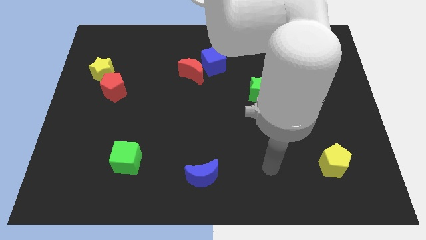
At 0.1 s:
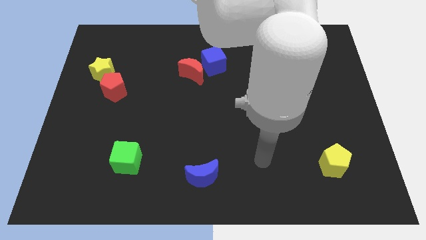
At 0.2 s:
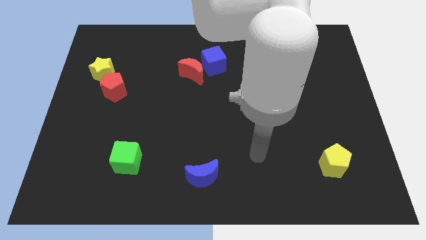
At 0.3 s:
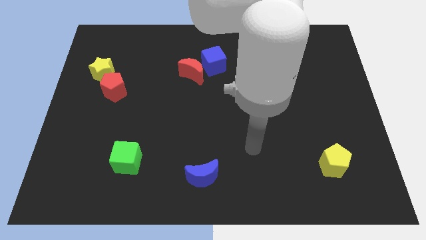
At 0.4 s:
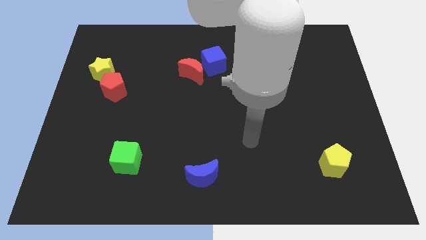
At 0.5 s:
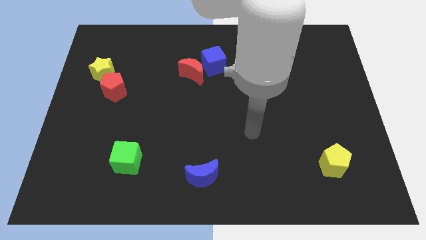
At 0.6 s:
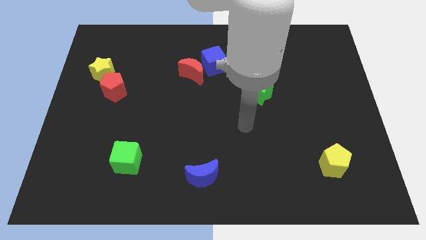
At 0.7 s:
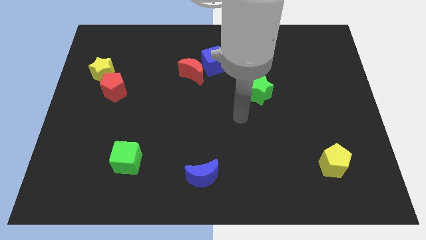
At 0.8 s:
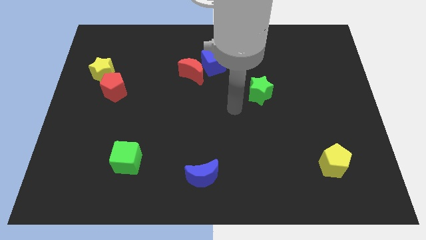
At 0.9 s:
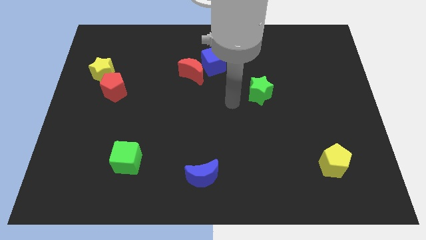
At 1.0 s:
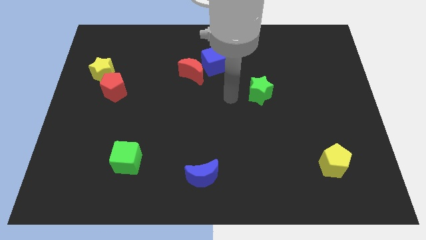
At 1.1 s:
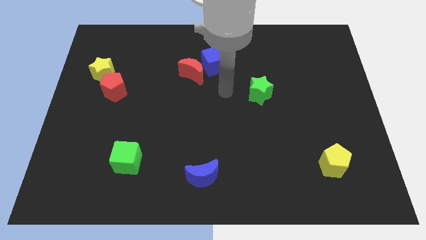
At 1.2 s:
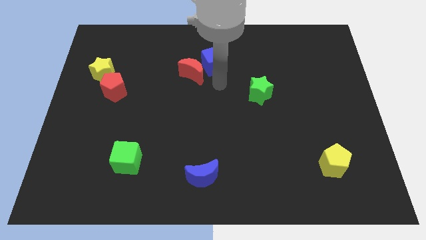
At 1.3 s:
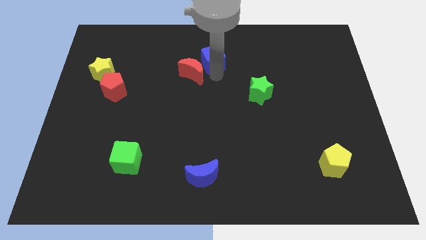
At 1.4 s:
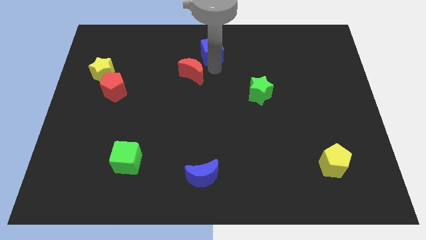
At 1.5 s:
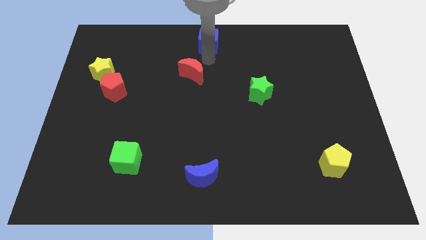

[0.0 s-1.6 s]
pull the red moon apart from the blue cube

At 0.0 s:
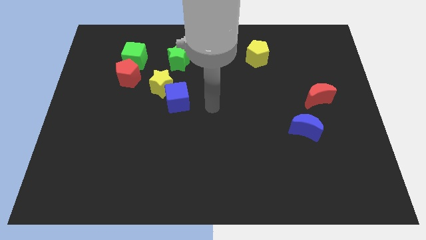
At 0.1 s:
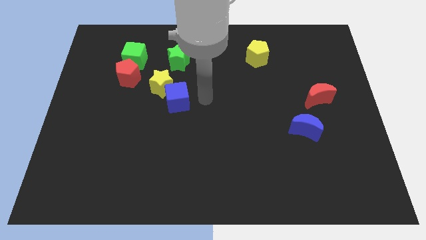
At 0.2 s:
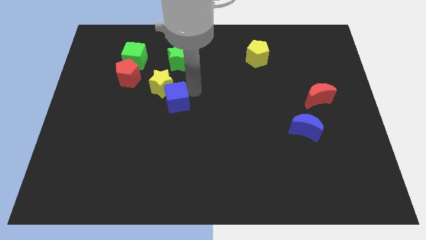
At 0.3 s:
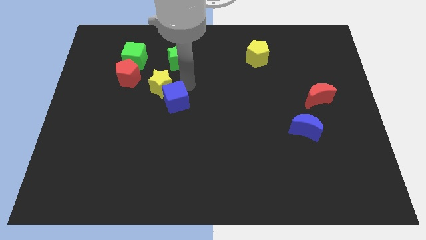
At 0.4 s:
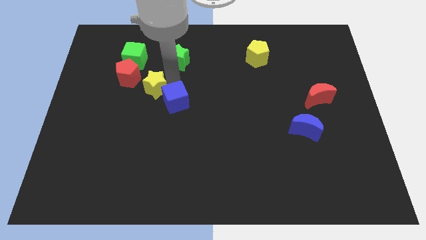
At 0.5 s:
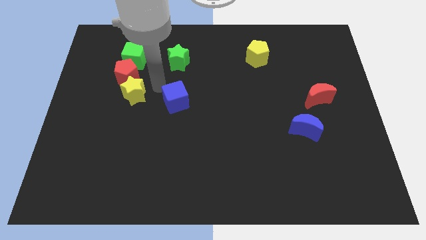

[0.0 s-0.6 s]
move the blue cube away from the yellow star

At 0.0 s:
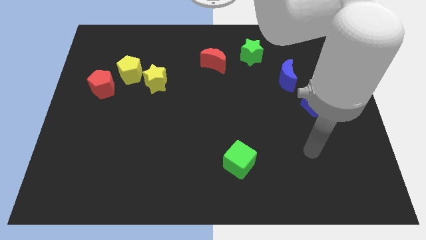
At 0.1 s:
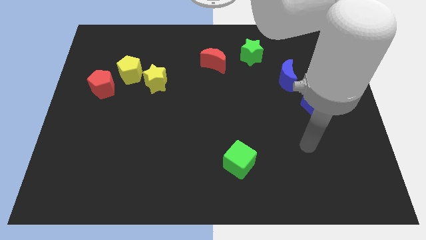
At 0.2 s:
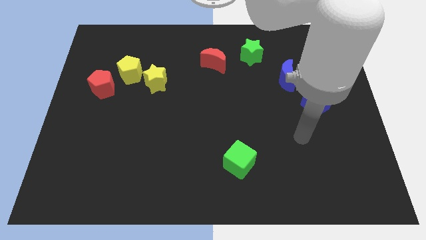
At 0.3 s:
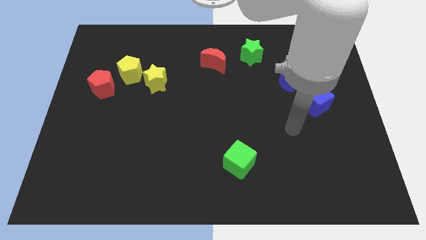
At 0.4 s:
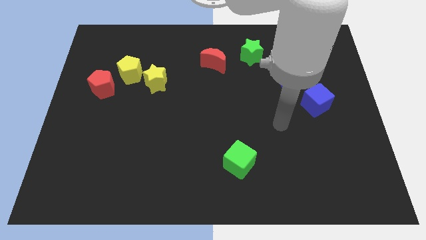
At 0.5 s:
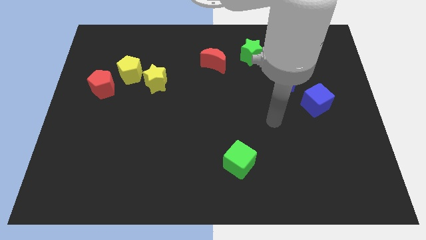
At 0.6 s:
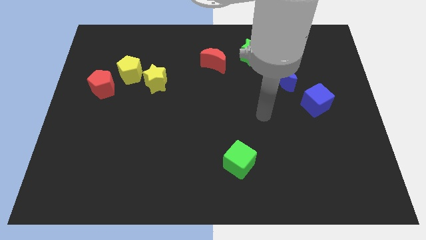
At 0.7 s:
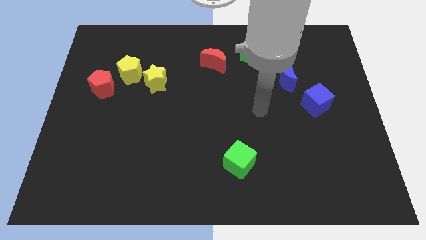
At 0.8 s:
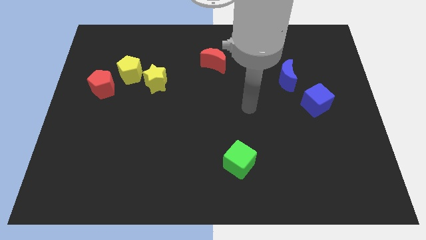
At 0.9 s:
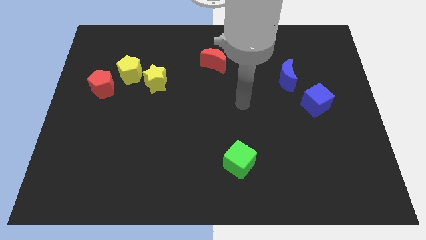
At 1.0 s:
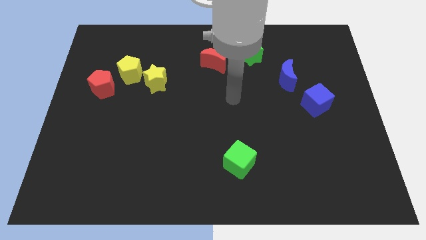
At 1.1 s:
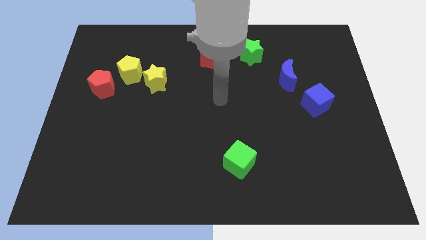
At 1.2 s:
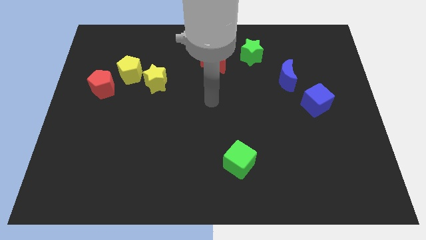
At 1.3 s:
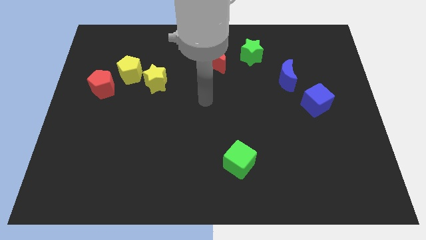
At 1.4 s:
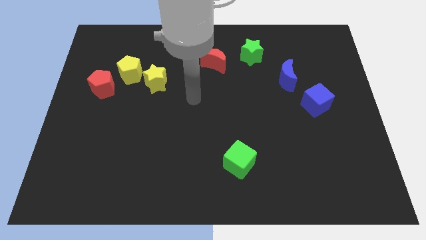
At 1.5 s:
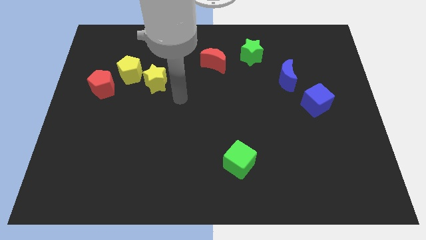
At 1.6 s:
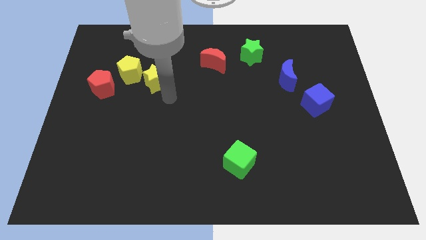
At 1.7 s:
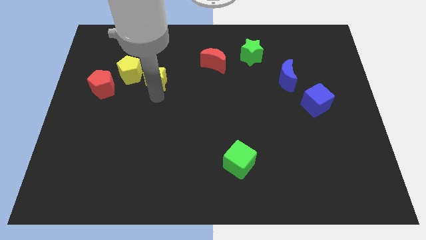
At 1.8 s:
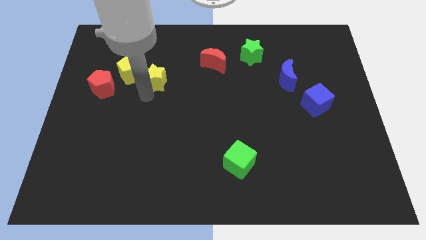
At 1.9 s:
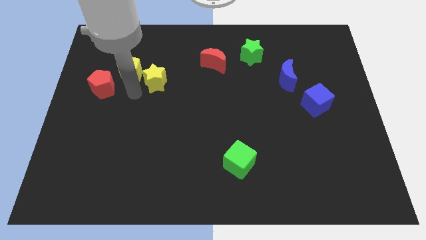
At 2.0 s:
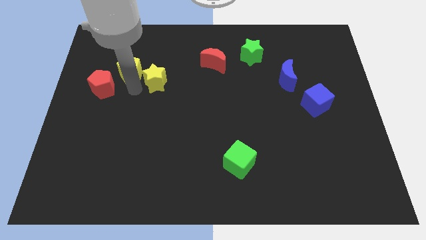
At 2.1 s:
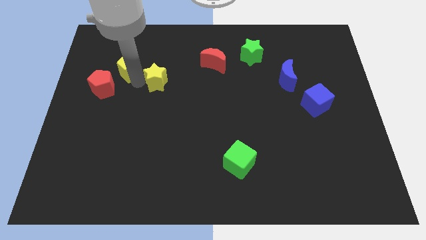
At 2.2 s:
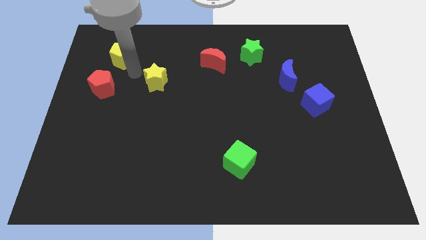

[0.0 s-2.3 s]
move the yellow star away from the yellow pentagon

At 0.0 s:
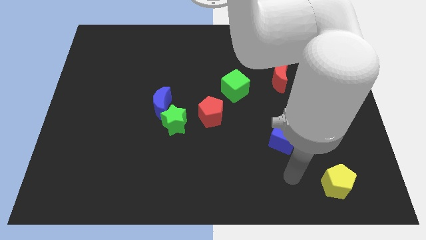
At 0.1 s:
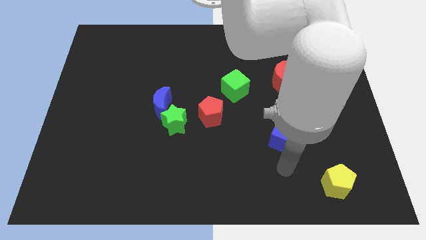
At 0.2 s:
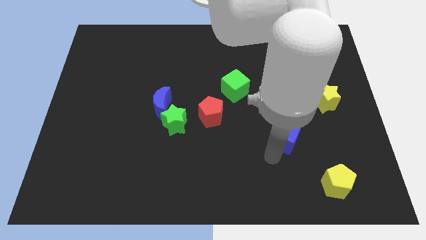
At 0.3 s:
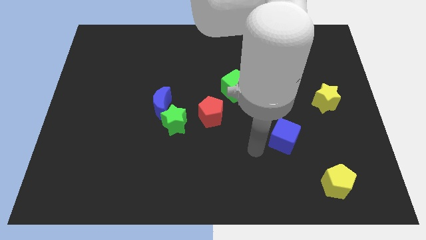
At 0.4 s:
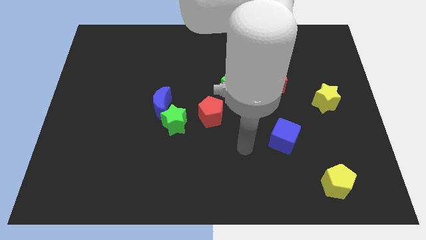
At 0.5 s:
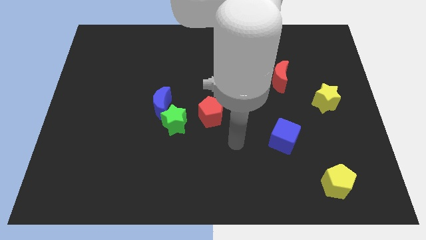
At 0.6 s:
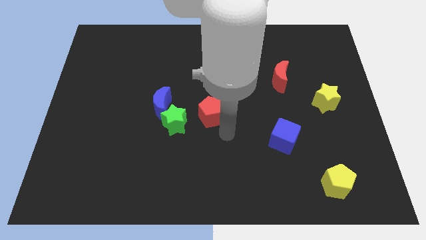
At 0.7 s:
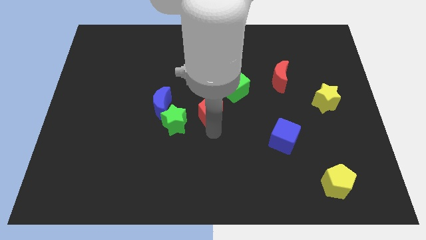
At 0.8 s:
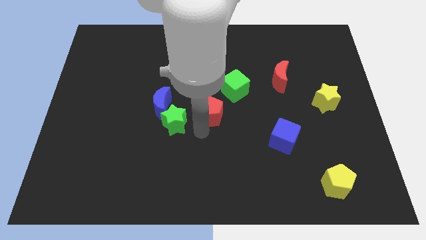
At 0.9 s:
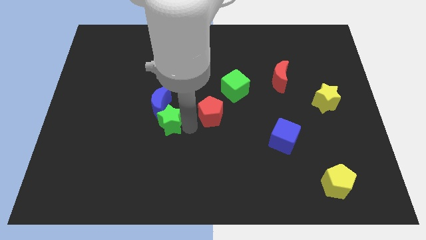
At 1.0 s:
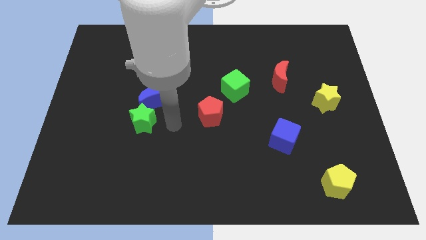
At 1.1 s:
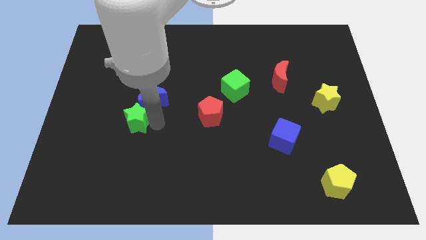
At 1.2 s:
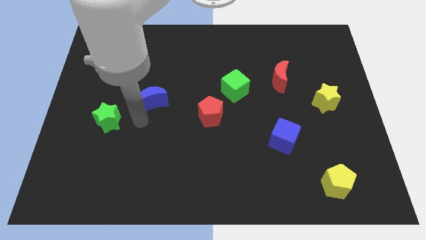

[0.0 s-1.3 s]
separate the blue moon from the green star

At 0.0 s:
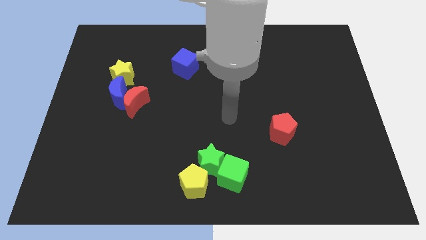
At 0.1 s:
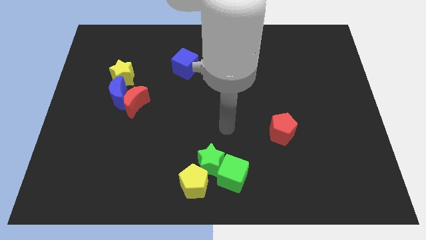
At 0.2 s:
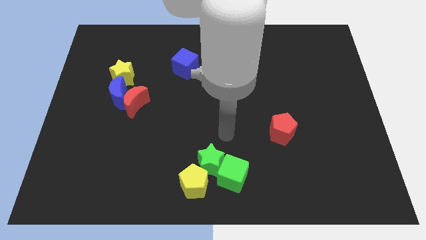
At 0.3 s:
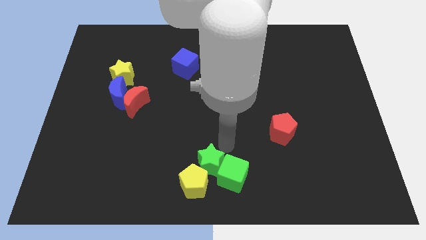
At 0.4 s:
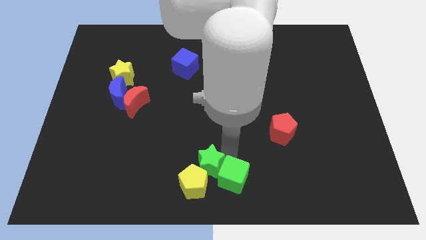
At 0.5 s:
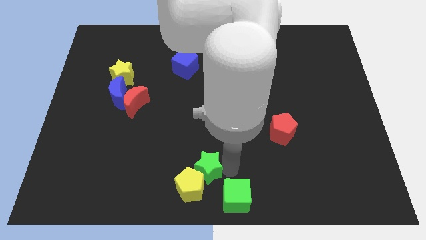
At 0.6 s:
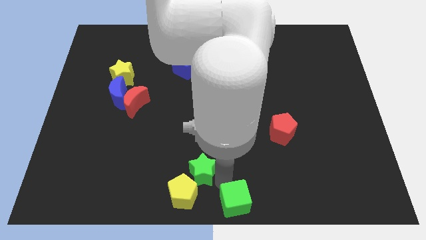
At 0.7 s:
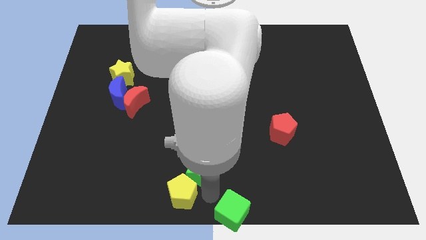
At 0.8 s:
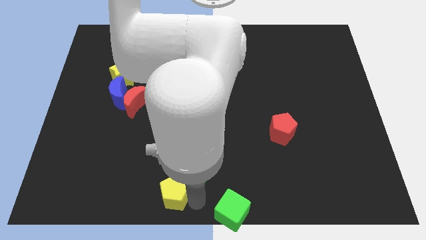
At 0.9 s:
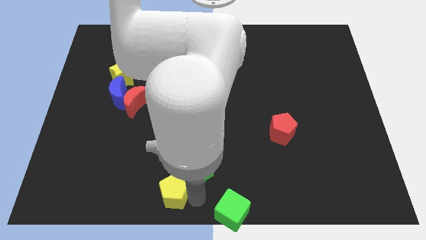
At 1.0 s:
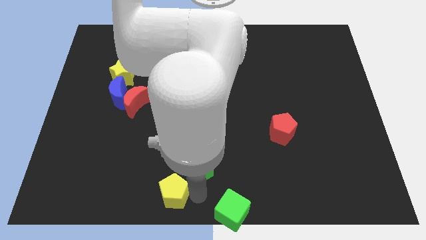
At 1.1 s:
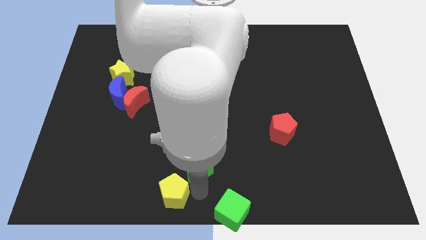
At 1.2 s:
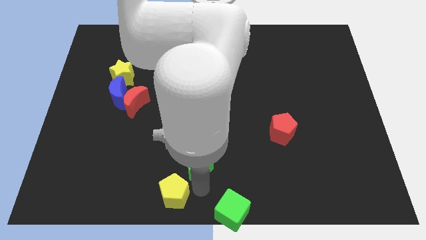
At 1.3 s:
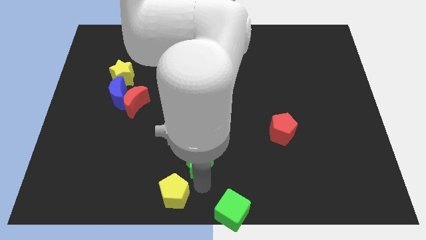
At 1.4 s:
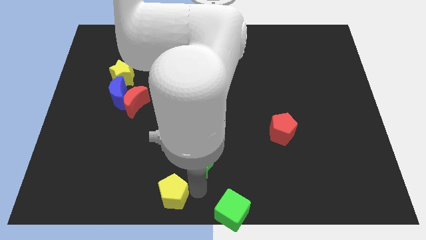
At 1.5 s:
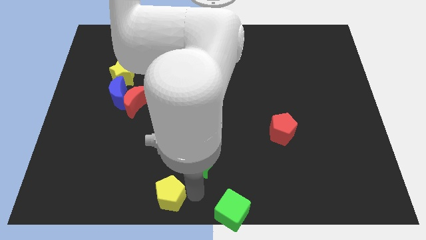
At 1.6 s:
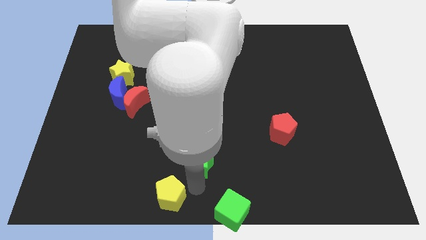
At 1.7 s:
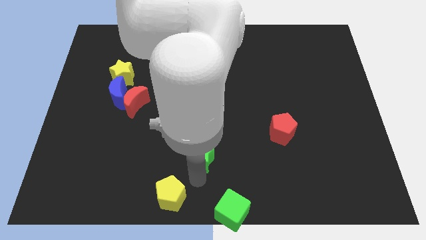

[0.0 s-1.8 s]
pull the green star apart from the yellow pentagon and green cube

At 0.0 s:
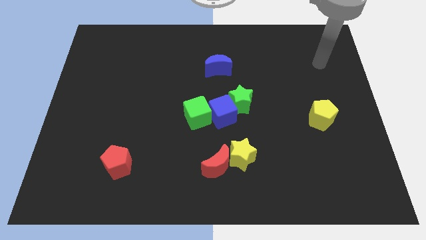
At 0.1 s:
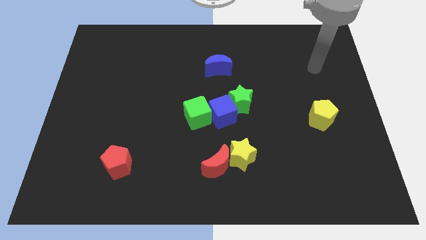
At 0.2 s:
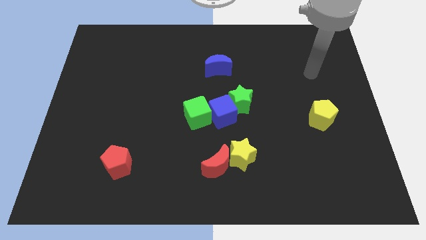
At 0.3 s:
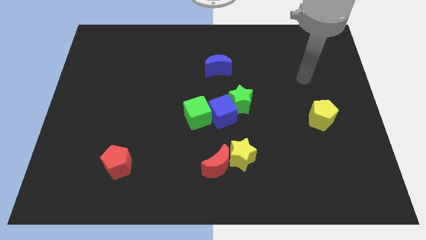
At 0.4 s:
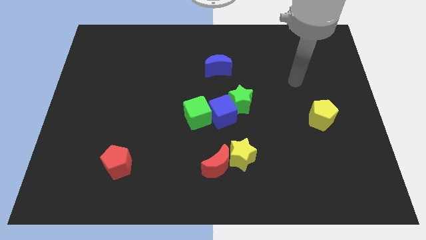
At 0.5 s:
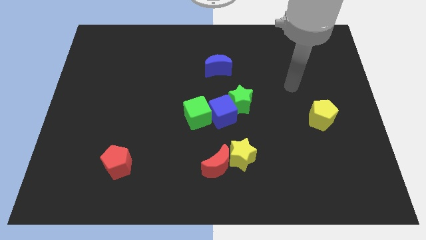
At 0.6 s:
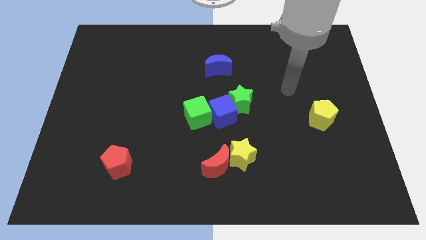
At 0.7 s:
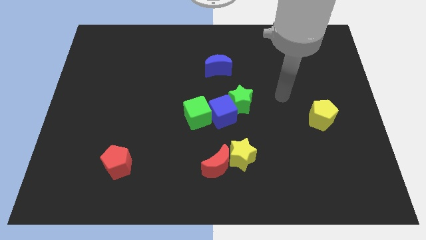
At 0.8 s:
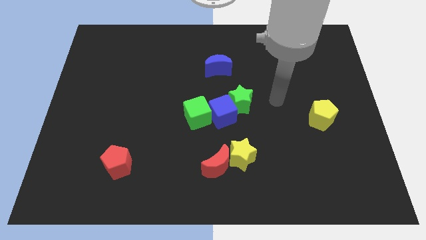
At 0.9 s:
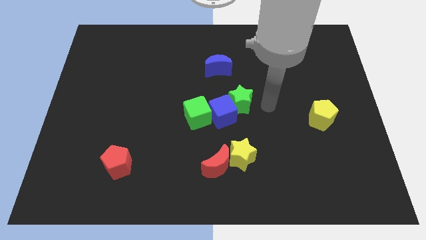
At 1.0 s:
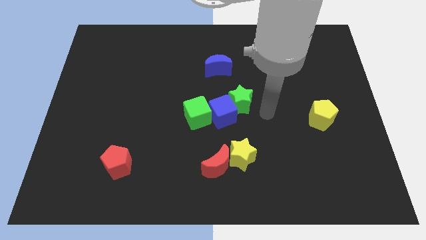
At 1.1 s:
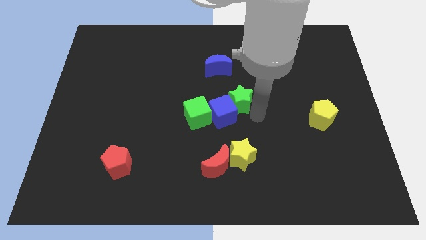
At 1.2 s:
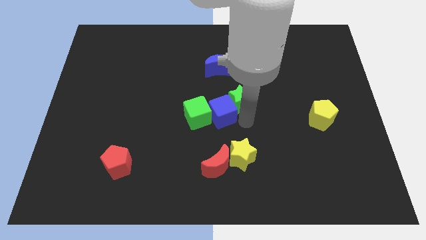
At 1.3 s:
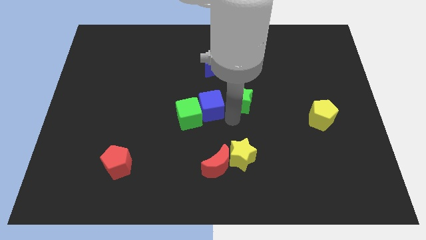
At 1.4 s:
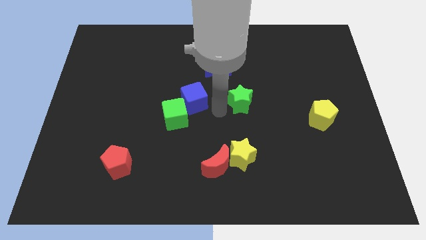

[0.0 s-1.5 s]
separate the green star from the blue cube

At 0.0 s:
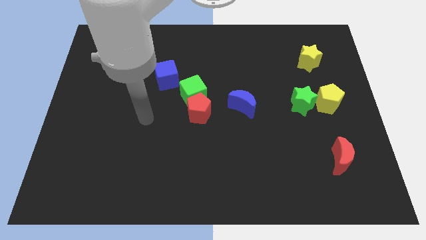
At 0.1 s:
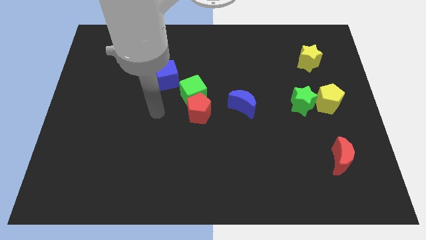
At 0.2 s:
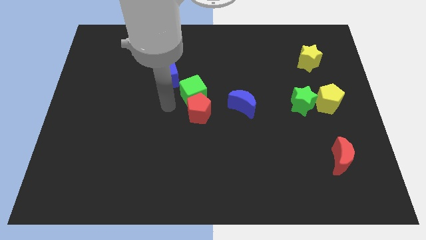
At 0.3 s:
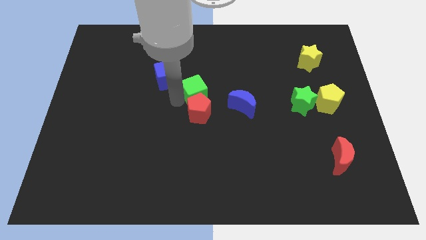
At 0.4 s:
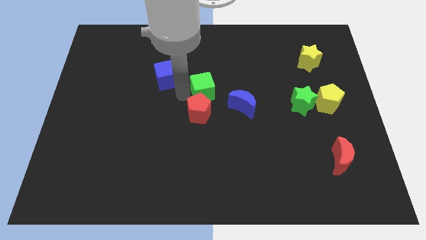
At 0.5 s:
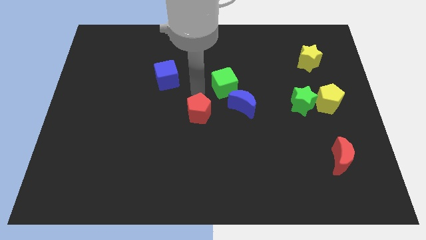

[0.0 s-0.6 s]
move the red pentagon away from the green cube
